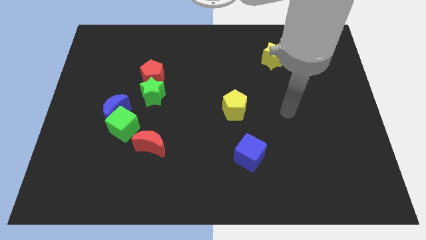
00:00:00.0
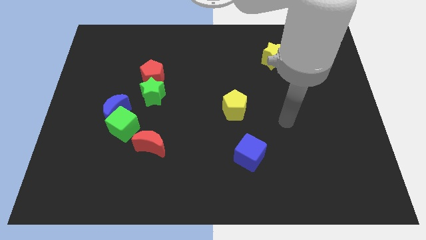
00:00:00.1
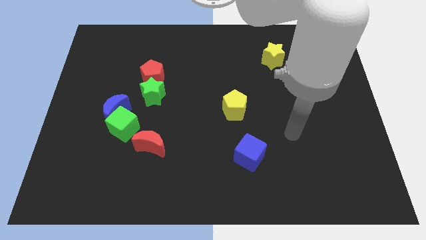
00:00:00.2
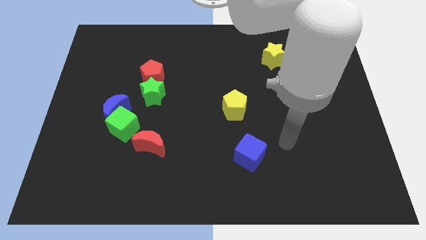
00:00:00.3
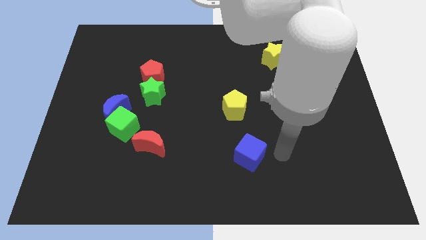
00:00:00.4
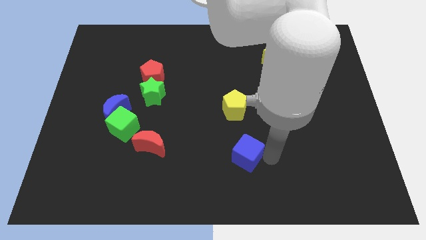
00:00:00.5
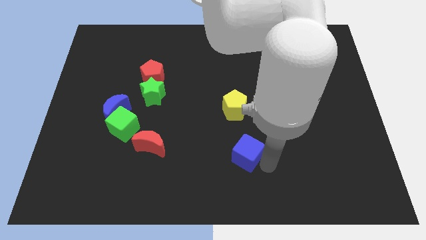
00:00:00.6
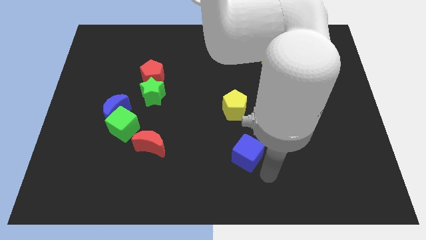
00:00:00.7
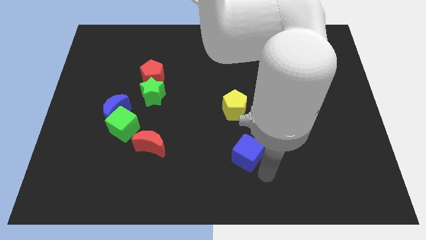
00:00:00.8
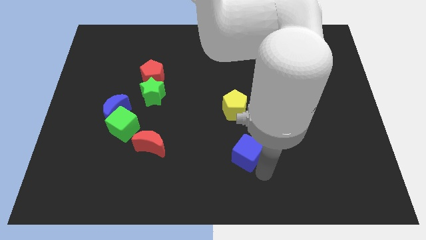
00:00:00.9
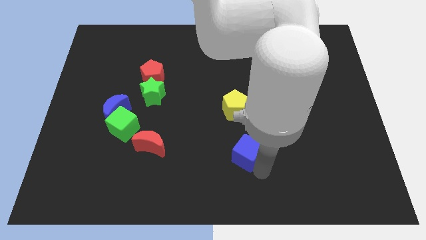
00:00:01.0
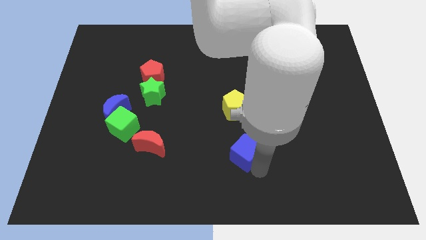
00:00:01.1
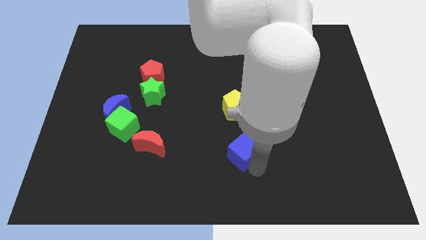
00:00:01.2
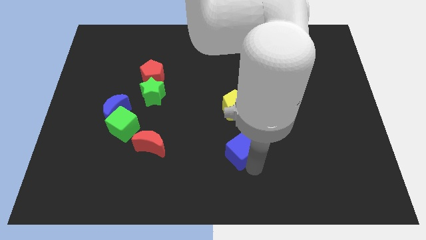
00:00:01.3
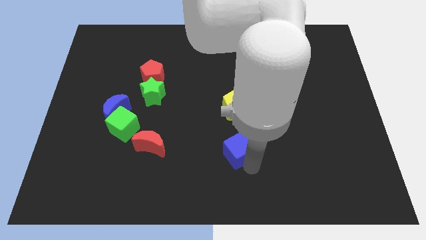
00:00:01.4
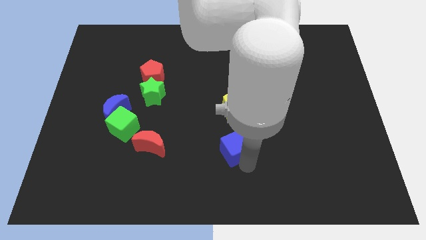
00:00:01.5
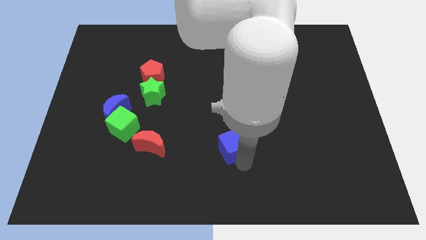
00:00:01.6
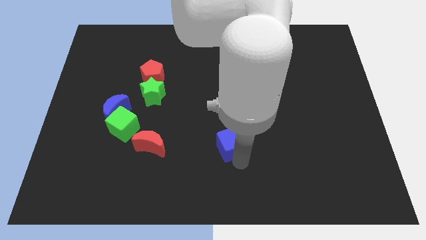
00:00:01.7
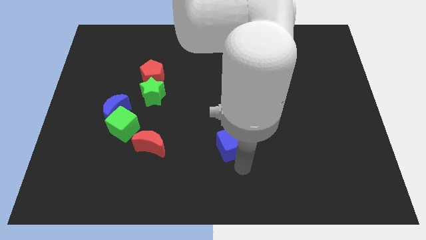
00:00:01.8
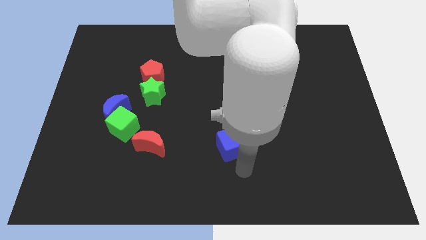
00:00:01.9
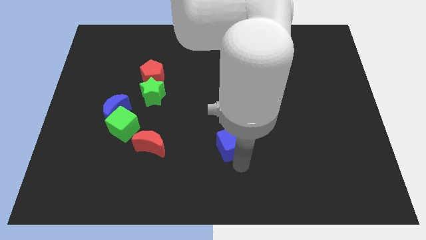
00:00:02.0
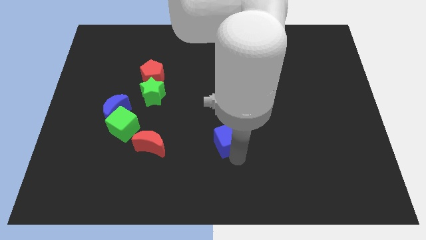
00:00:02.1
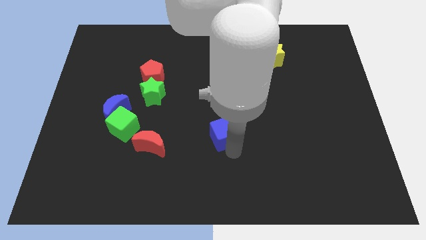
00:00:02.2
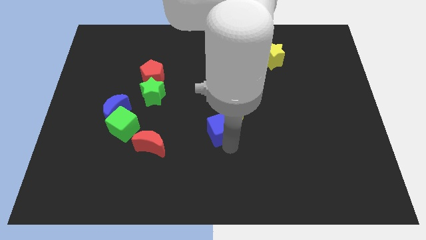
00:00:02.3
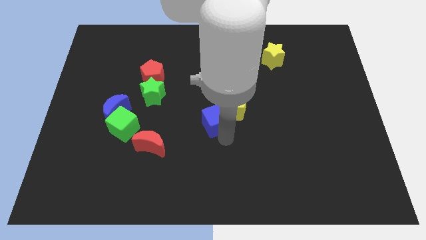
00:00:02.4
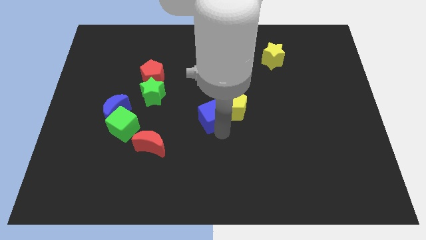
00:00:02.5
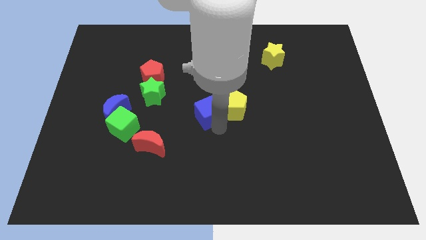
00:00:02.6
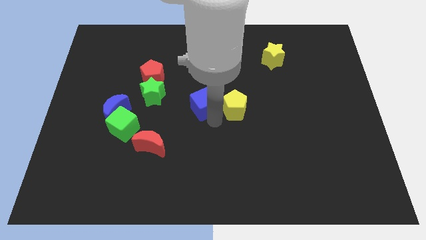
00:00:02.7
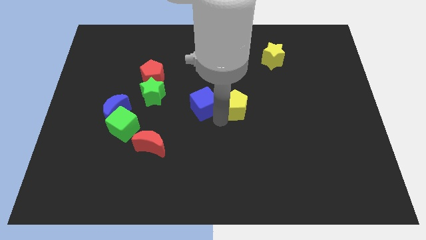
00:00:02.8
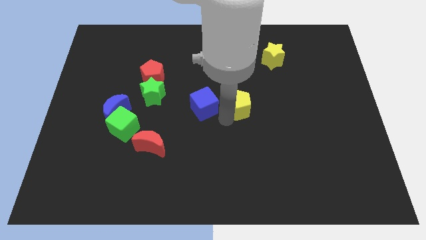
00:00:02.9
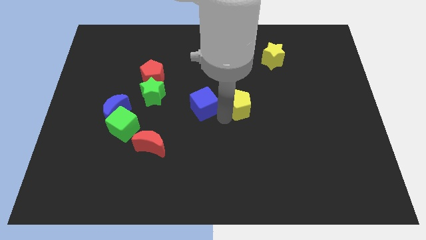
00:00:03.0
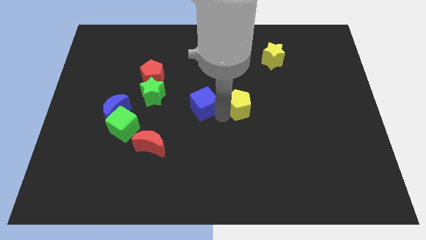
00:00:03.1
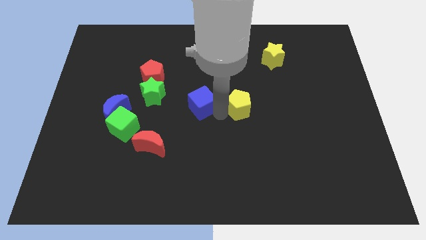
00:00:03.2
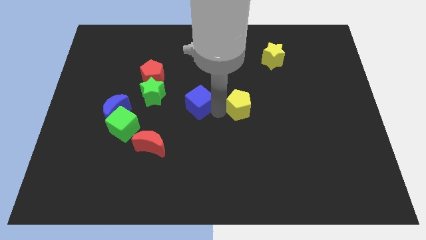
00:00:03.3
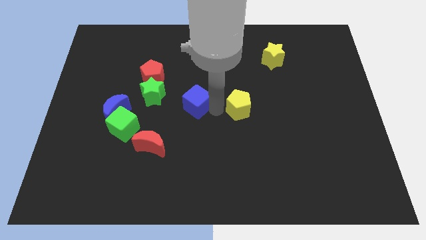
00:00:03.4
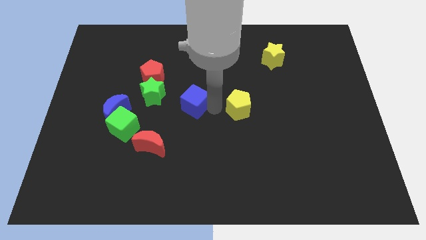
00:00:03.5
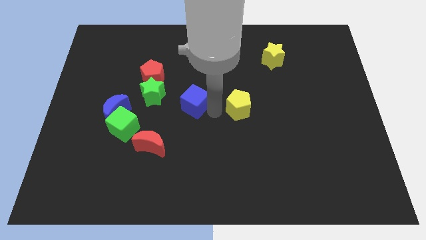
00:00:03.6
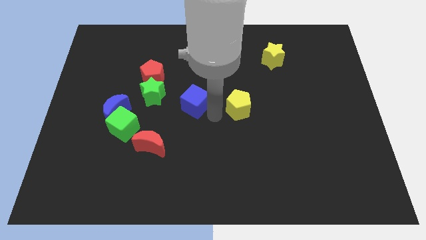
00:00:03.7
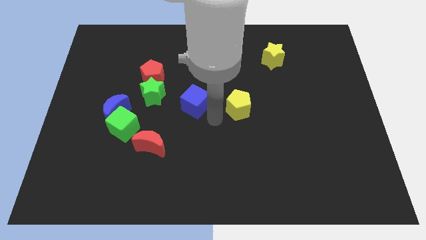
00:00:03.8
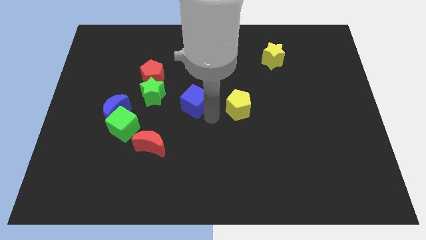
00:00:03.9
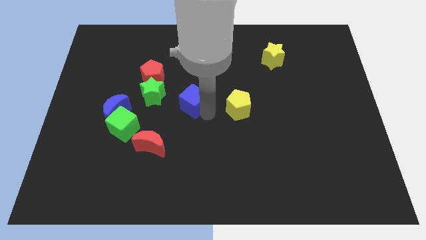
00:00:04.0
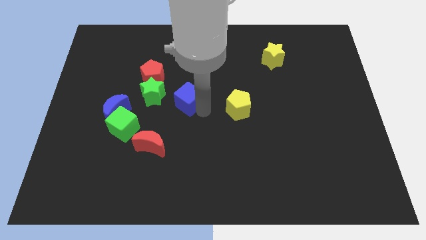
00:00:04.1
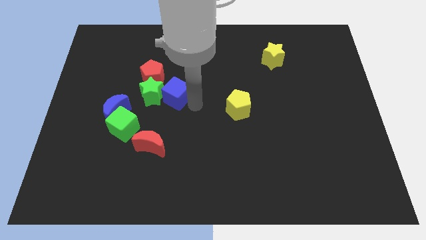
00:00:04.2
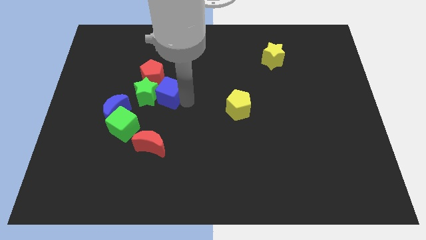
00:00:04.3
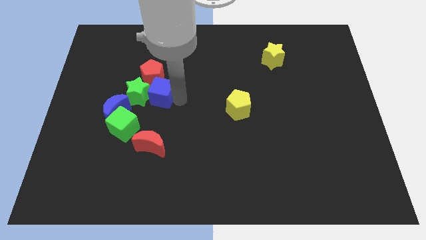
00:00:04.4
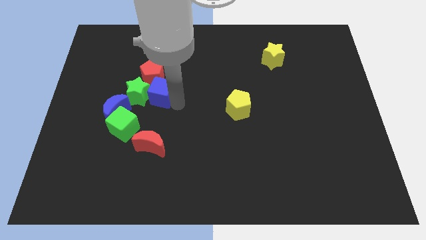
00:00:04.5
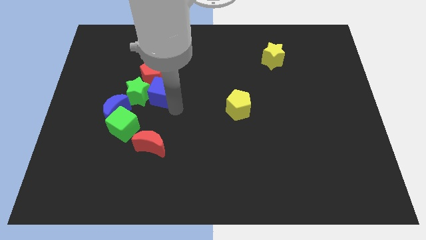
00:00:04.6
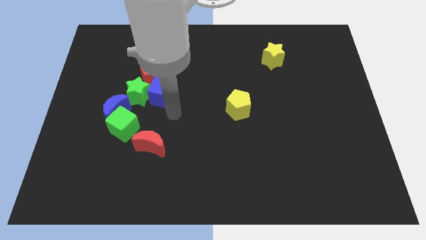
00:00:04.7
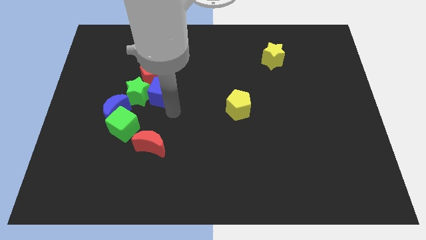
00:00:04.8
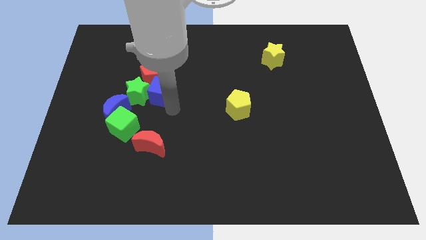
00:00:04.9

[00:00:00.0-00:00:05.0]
slide the blue cube to the red pentagon

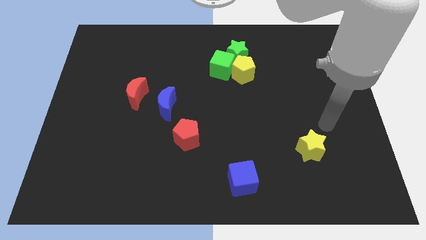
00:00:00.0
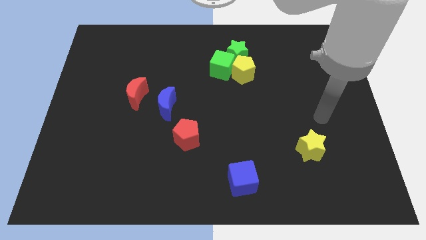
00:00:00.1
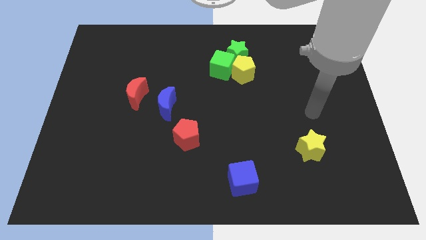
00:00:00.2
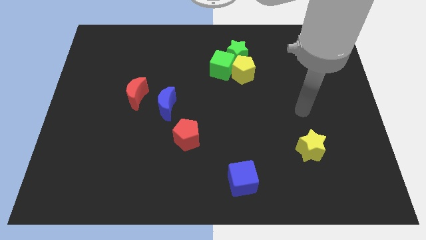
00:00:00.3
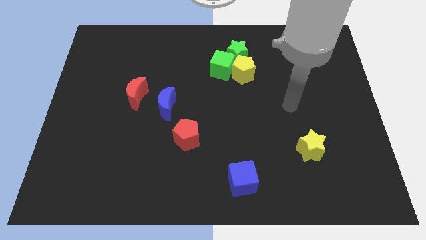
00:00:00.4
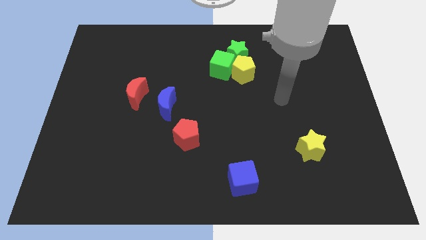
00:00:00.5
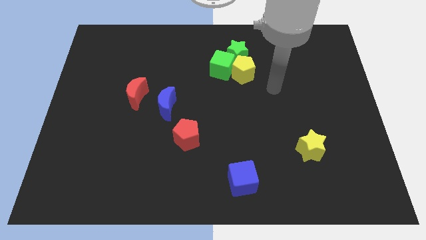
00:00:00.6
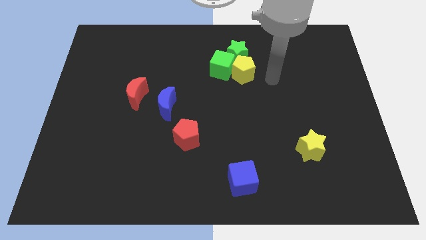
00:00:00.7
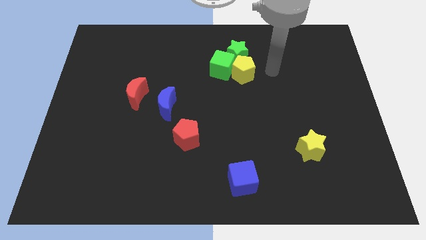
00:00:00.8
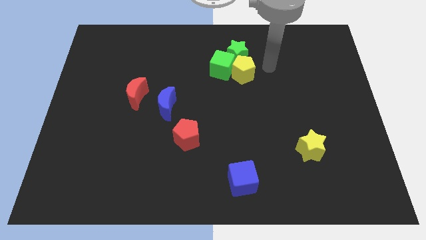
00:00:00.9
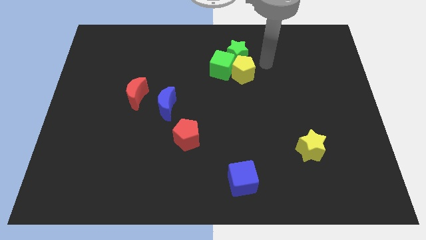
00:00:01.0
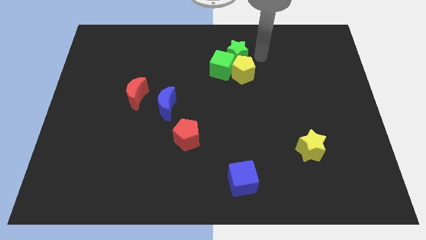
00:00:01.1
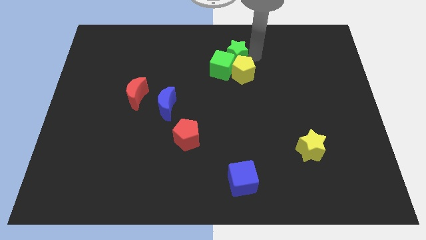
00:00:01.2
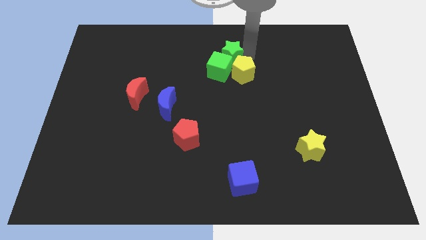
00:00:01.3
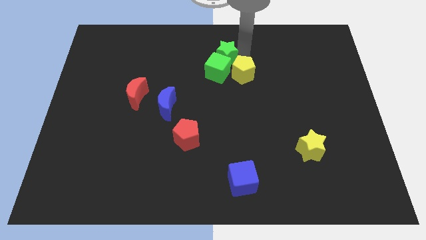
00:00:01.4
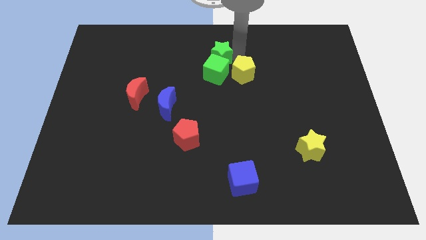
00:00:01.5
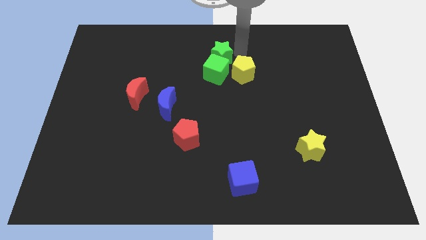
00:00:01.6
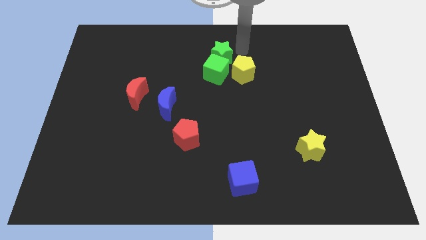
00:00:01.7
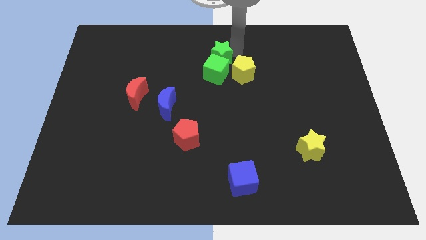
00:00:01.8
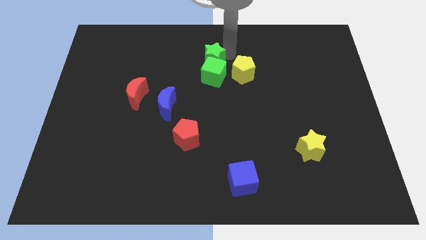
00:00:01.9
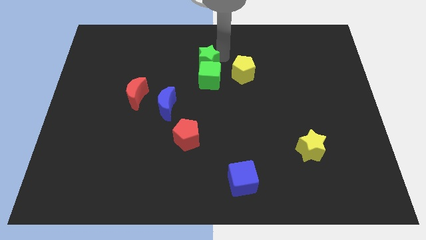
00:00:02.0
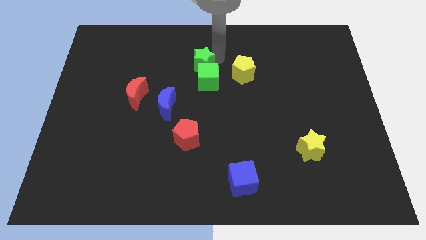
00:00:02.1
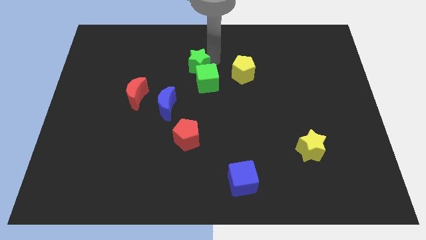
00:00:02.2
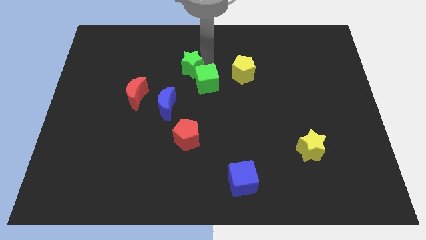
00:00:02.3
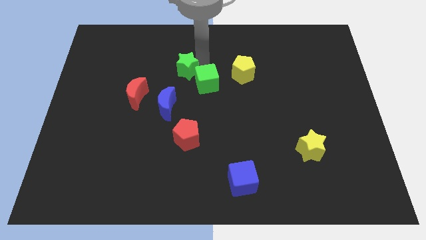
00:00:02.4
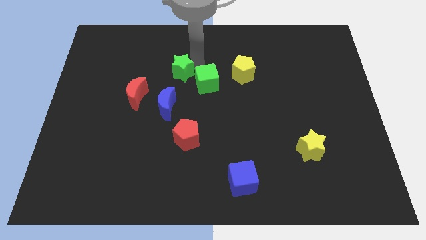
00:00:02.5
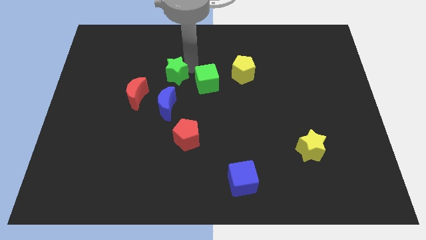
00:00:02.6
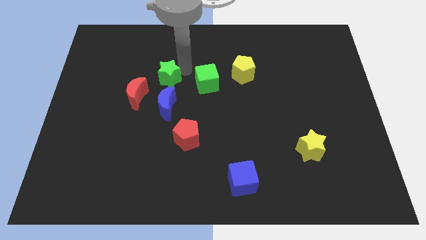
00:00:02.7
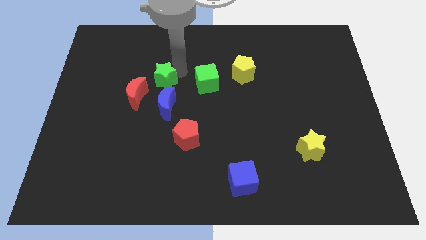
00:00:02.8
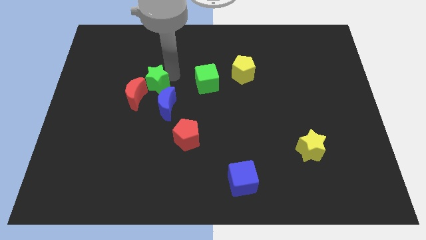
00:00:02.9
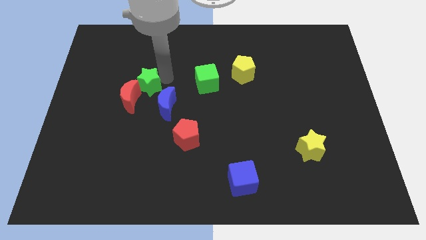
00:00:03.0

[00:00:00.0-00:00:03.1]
put the green star to the red moon
